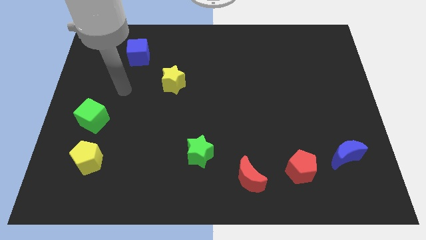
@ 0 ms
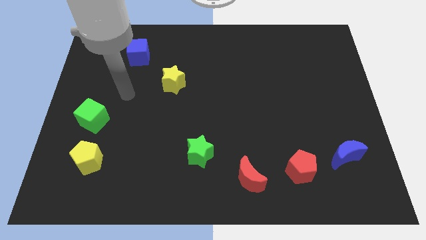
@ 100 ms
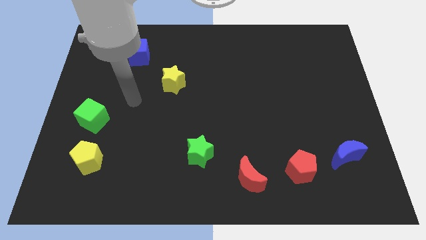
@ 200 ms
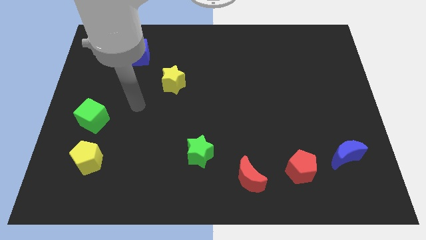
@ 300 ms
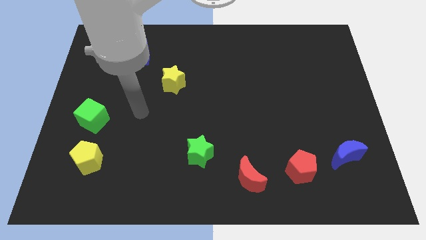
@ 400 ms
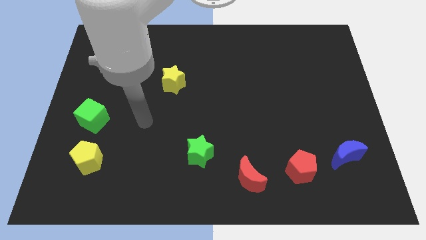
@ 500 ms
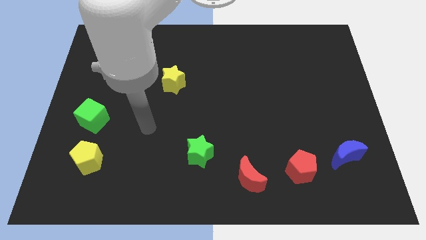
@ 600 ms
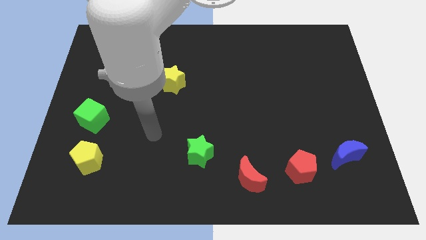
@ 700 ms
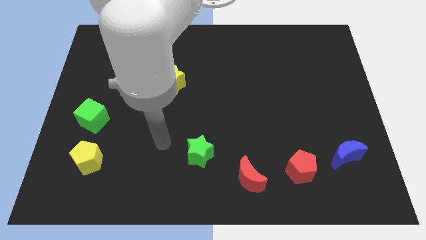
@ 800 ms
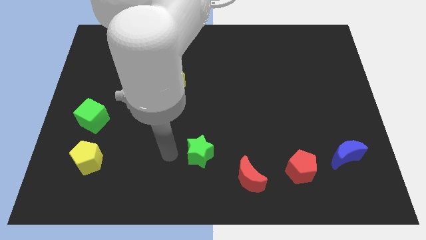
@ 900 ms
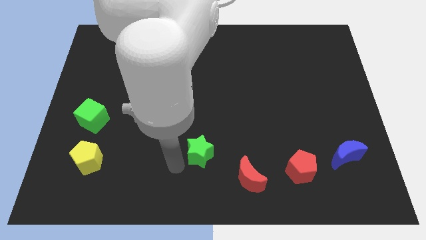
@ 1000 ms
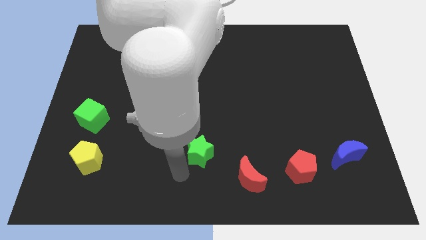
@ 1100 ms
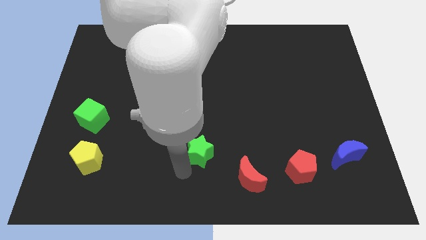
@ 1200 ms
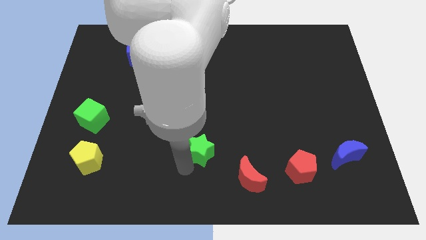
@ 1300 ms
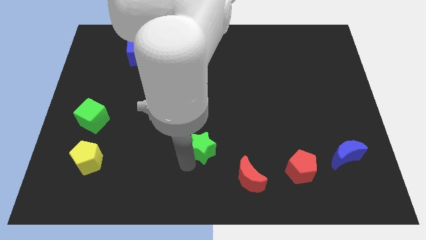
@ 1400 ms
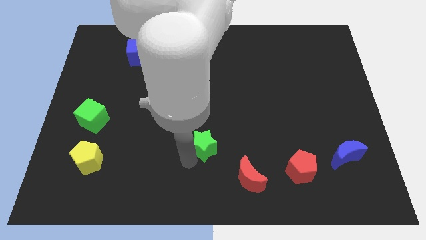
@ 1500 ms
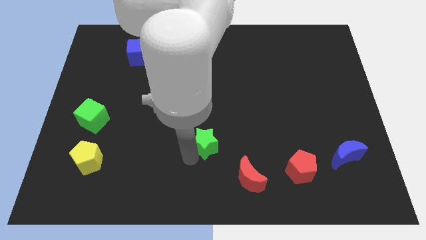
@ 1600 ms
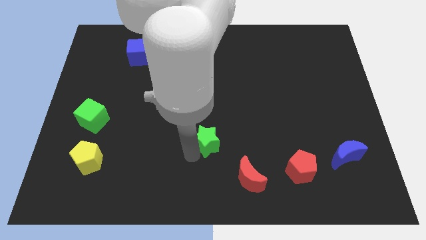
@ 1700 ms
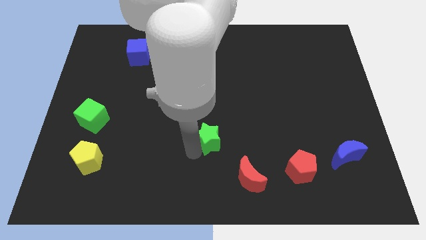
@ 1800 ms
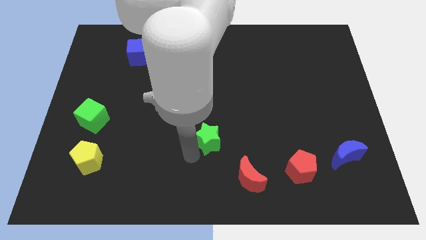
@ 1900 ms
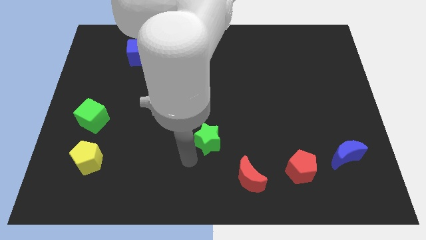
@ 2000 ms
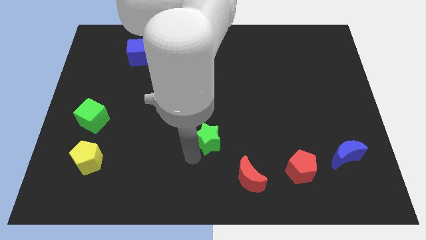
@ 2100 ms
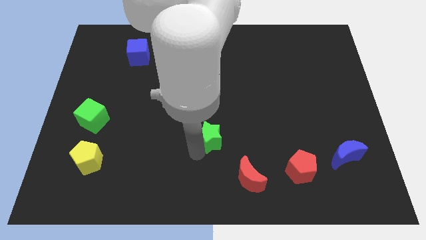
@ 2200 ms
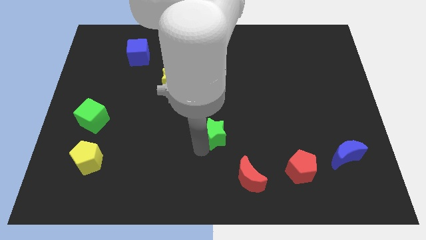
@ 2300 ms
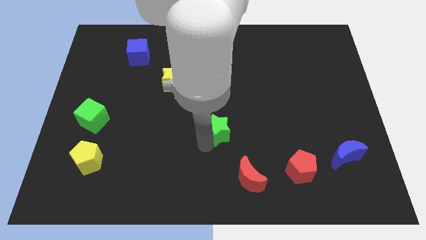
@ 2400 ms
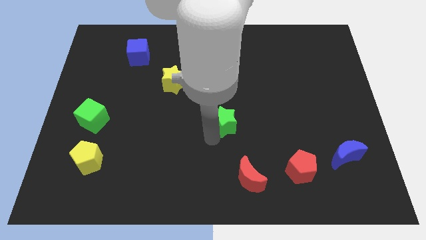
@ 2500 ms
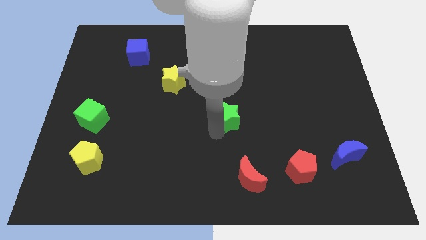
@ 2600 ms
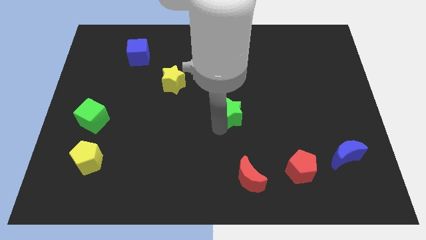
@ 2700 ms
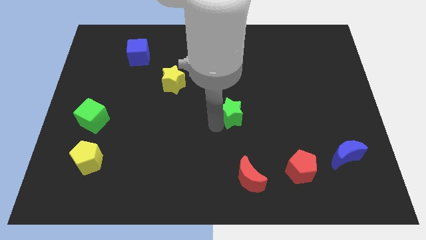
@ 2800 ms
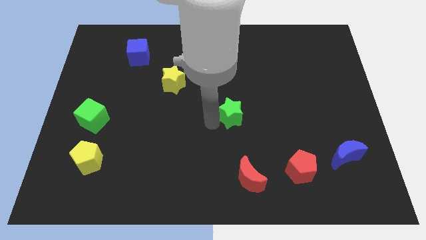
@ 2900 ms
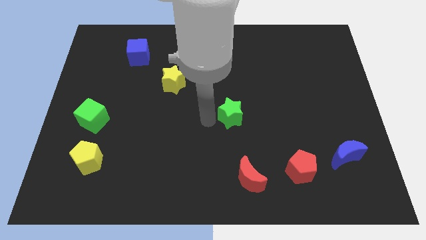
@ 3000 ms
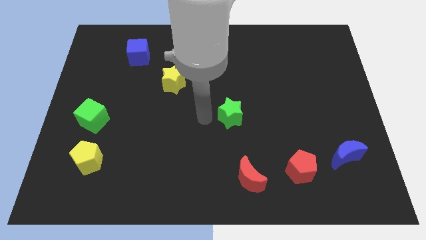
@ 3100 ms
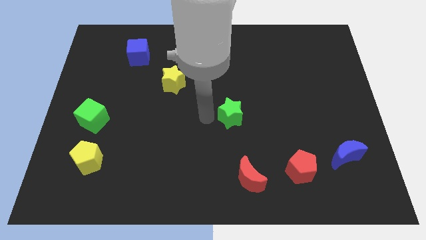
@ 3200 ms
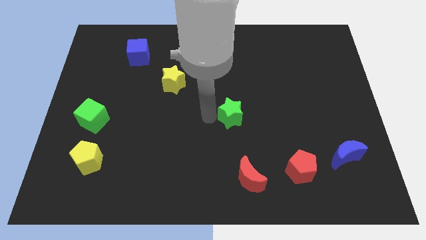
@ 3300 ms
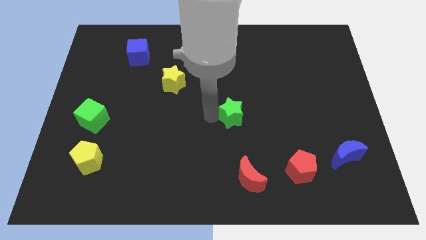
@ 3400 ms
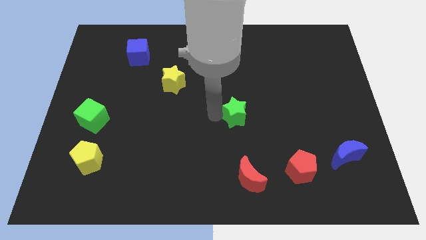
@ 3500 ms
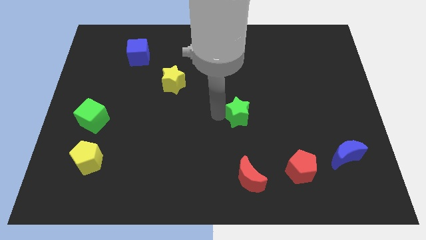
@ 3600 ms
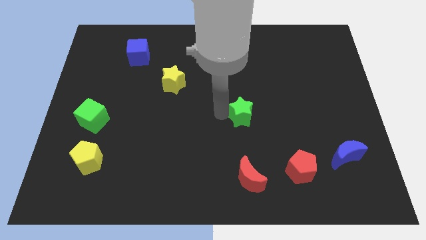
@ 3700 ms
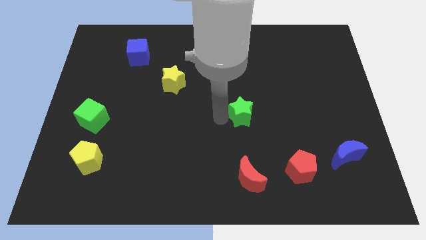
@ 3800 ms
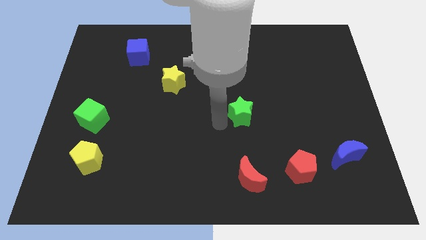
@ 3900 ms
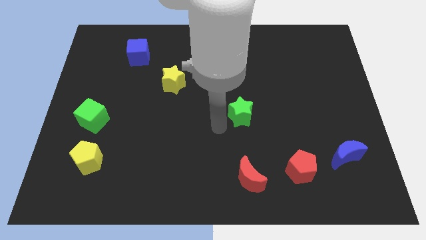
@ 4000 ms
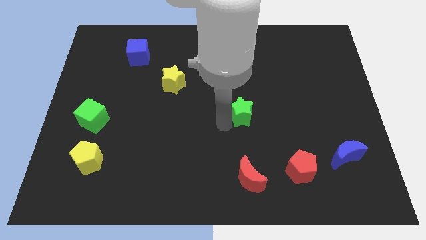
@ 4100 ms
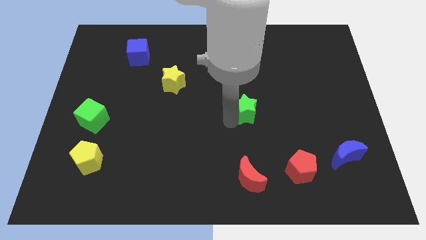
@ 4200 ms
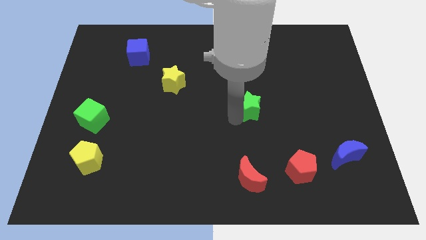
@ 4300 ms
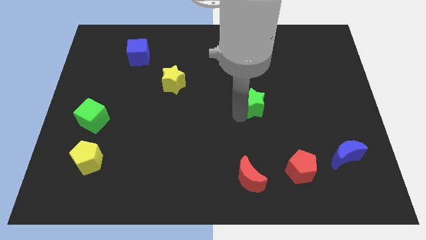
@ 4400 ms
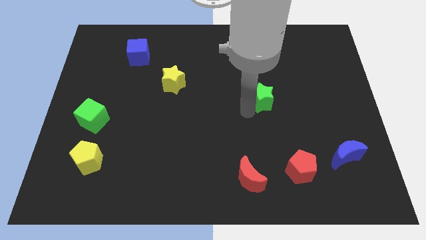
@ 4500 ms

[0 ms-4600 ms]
push the green star upwards and to the right diagonally

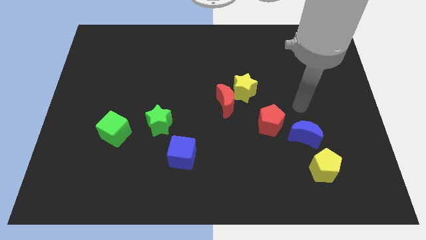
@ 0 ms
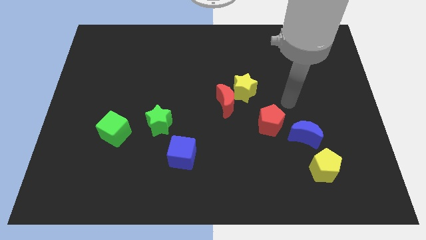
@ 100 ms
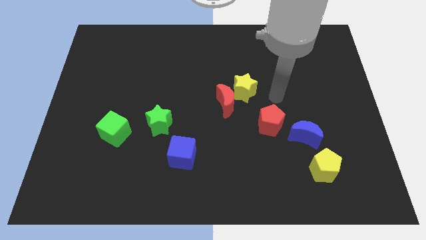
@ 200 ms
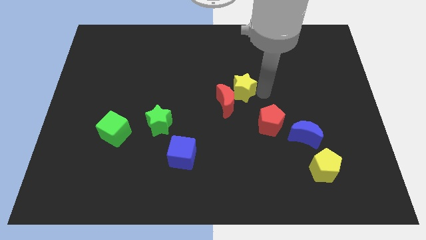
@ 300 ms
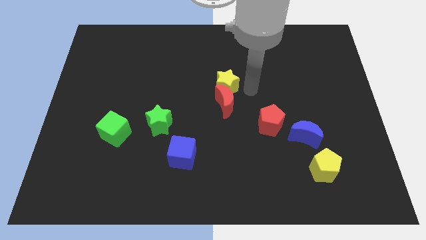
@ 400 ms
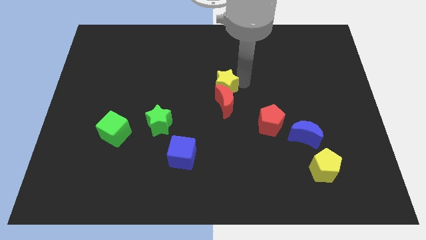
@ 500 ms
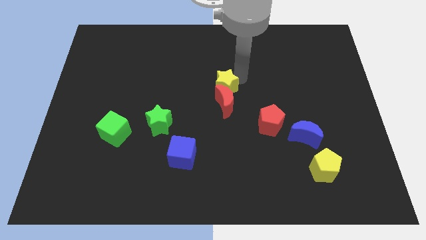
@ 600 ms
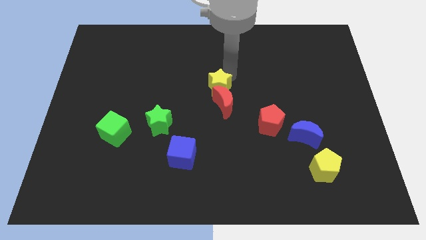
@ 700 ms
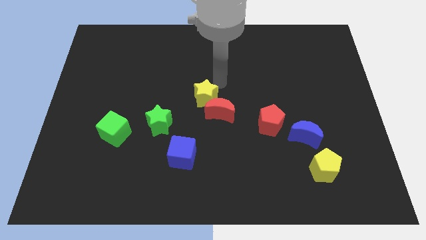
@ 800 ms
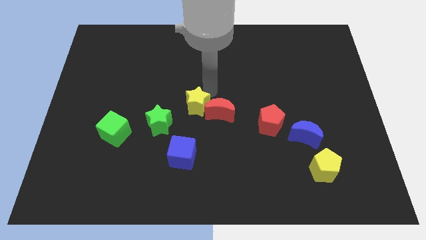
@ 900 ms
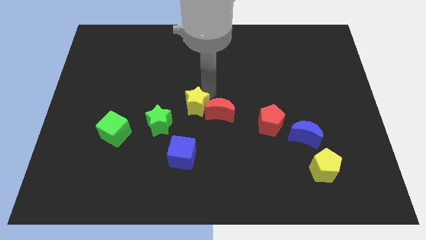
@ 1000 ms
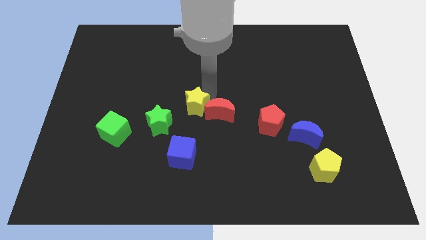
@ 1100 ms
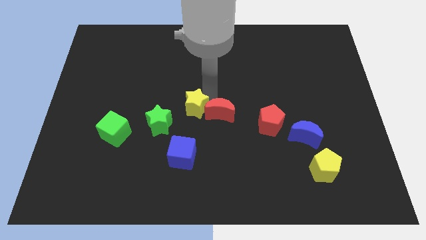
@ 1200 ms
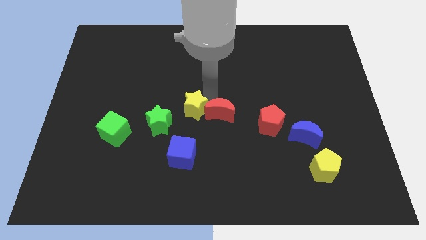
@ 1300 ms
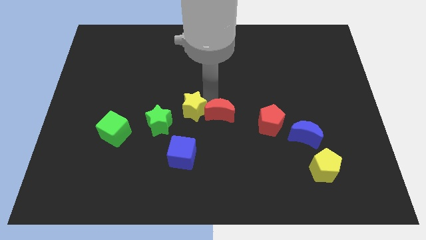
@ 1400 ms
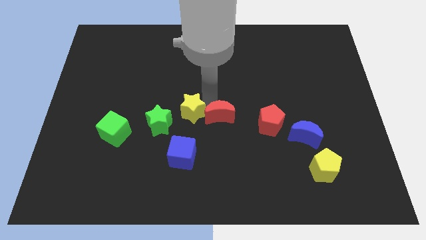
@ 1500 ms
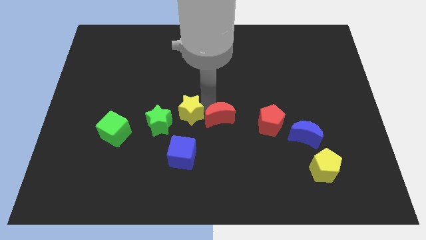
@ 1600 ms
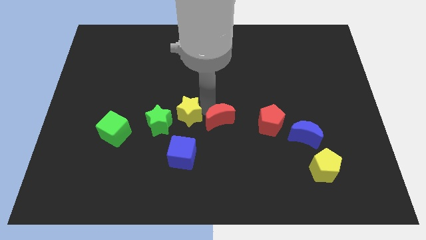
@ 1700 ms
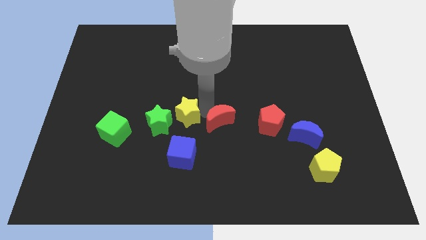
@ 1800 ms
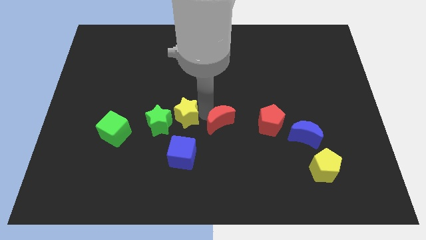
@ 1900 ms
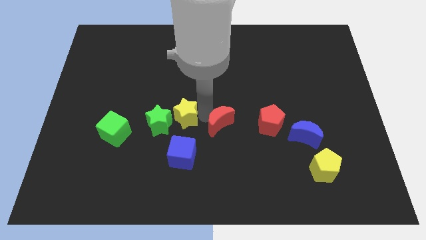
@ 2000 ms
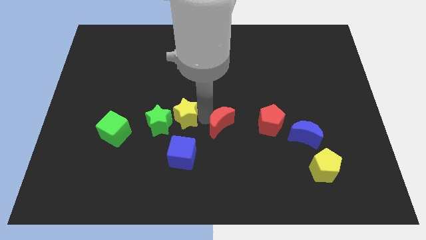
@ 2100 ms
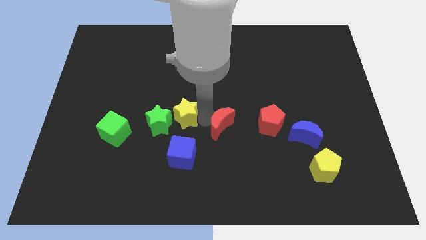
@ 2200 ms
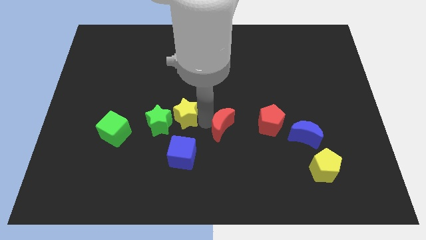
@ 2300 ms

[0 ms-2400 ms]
push the red moon downwards somewhat

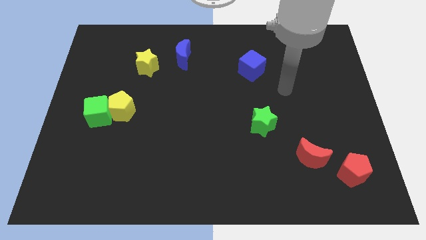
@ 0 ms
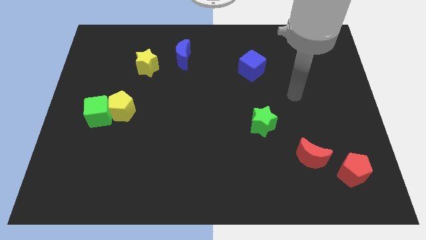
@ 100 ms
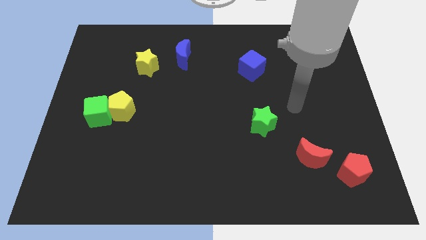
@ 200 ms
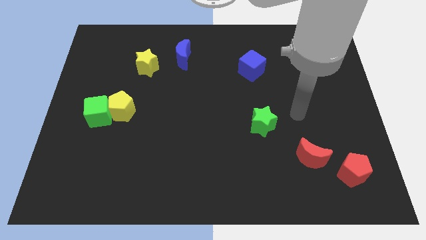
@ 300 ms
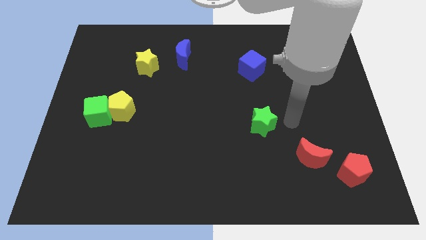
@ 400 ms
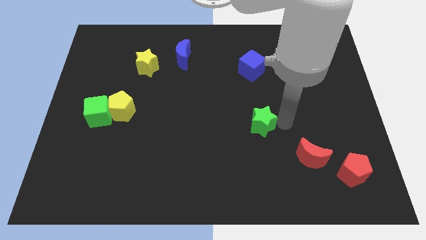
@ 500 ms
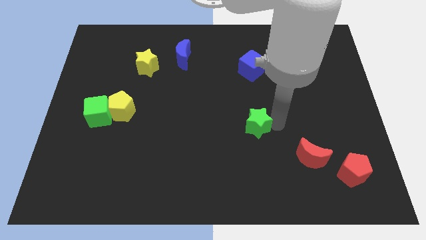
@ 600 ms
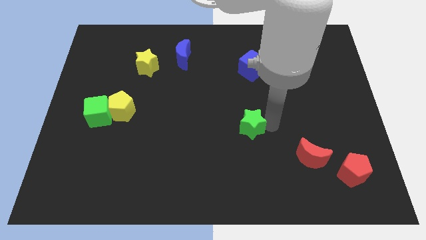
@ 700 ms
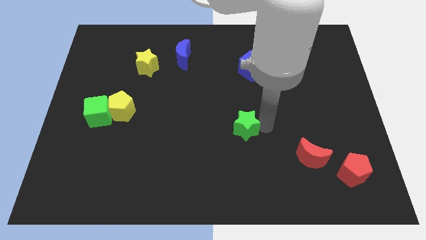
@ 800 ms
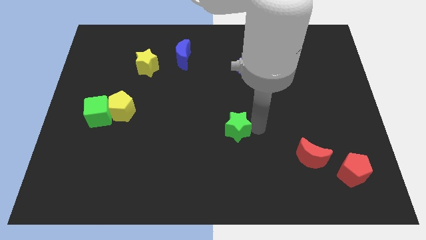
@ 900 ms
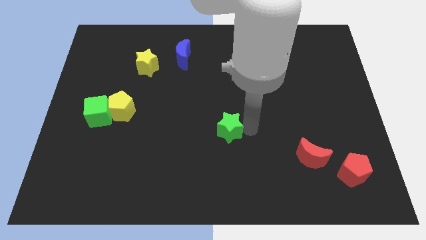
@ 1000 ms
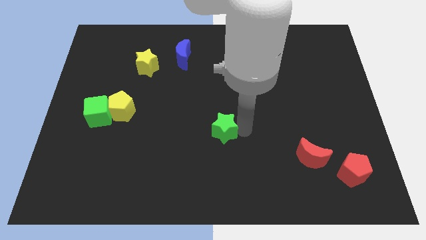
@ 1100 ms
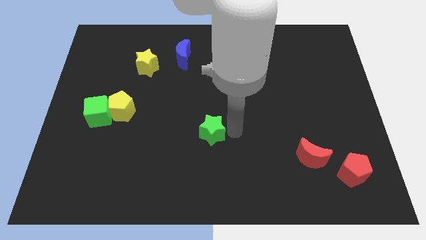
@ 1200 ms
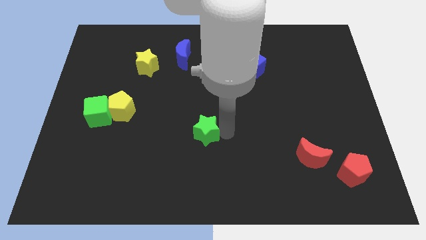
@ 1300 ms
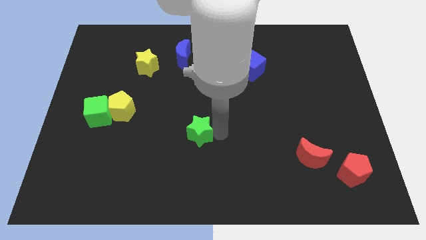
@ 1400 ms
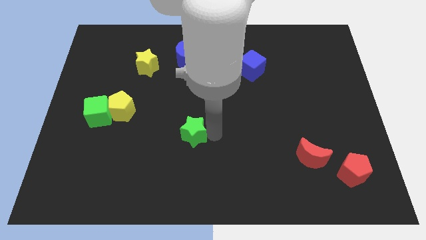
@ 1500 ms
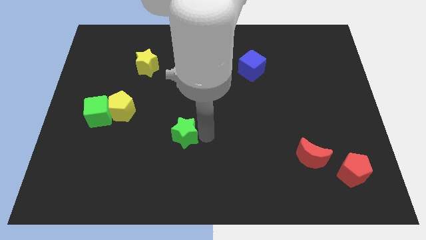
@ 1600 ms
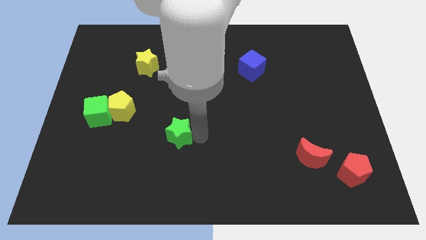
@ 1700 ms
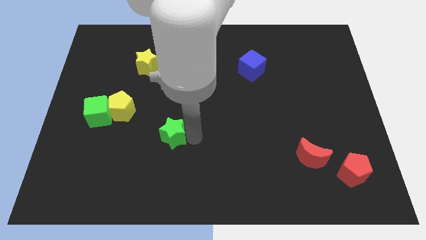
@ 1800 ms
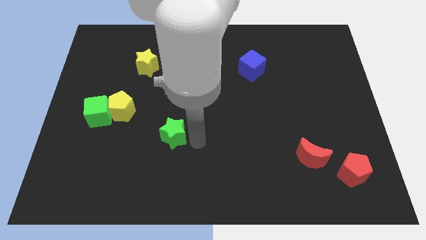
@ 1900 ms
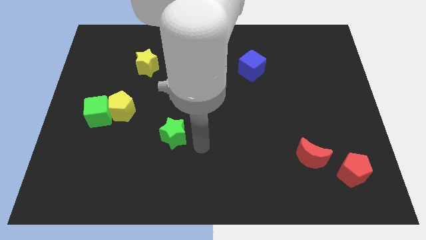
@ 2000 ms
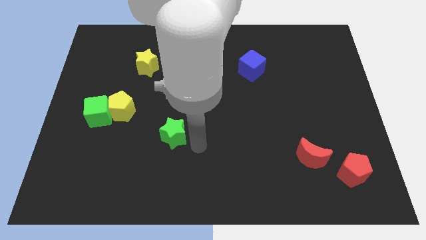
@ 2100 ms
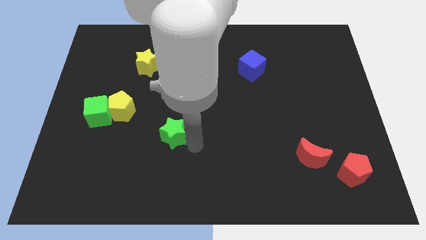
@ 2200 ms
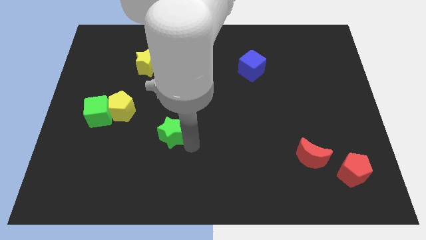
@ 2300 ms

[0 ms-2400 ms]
move the green star left
